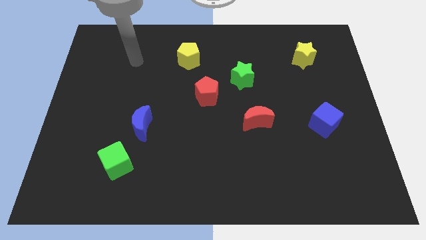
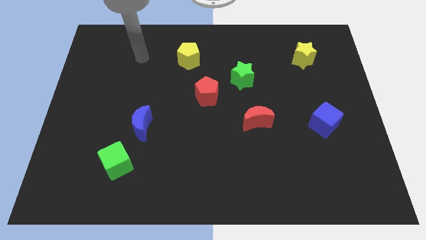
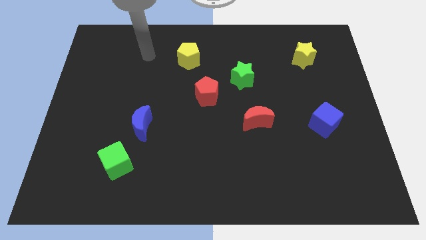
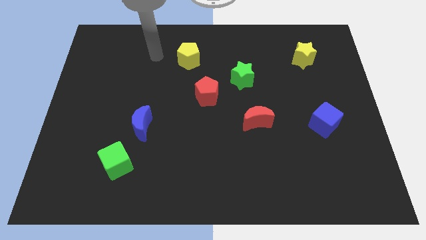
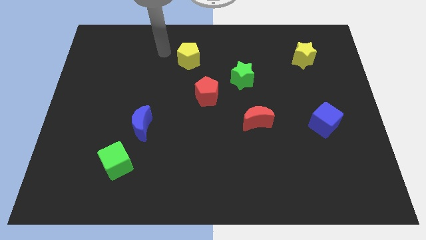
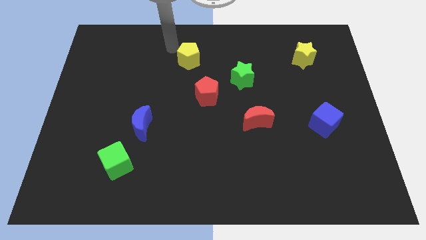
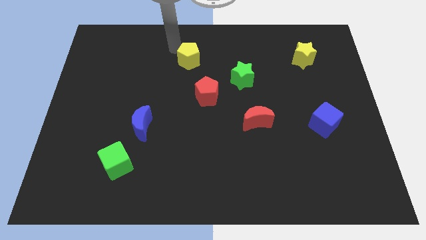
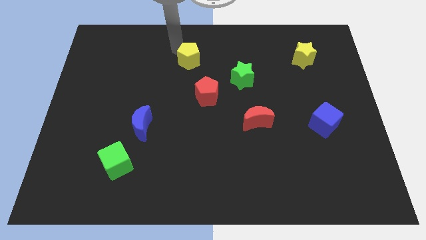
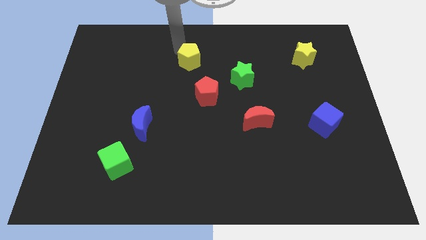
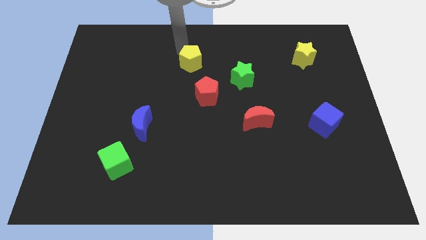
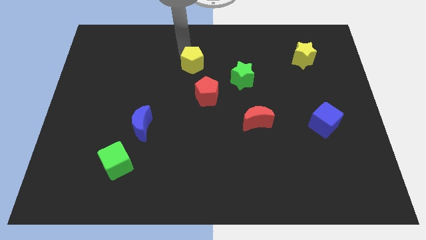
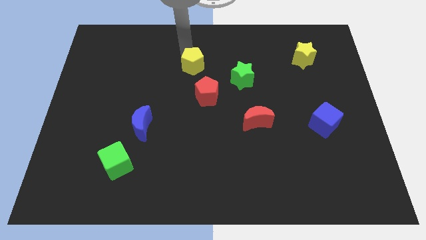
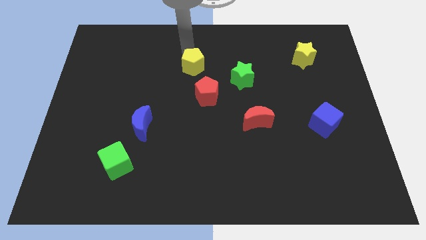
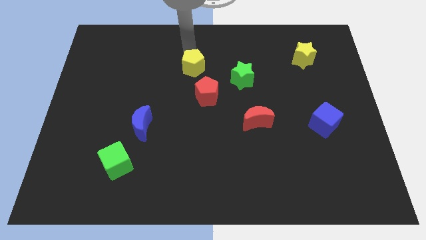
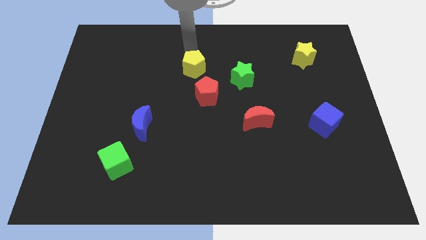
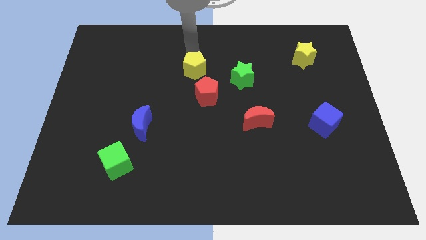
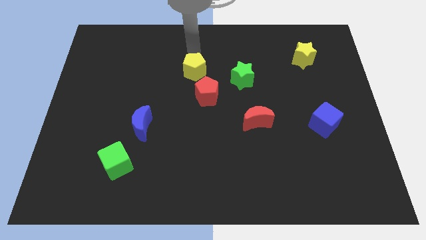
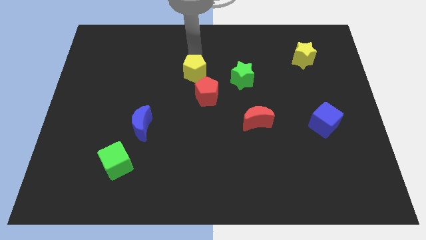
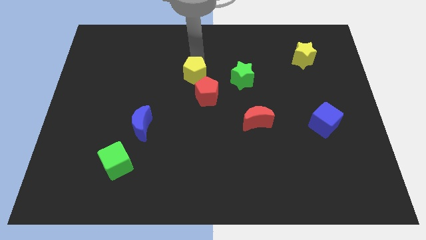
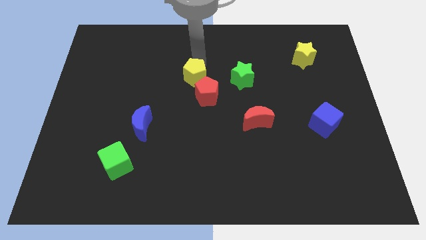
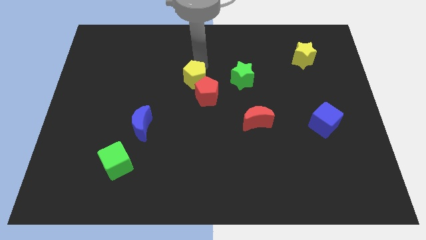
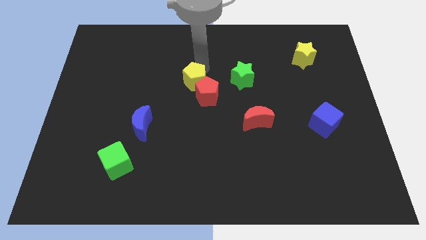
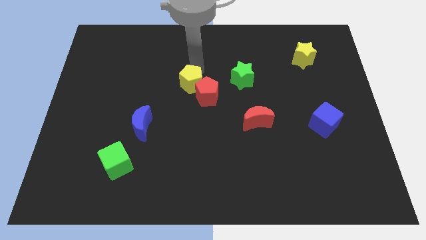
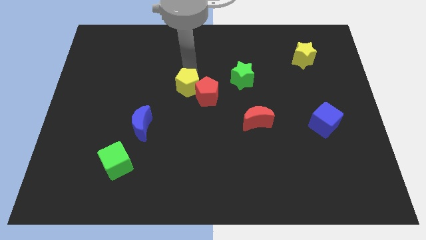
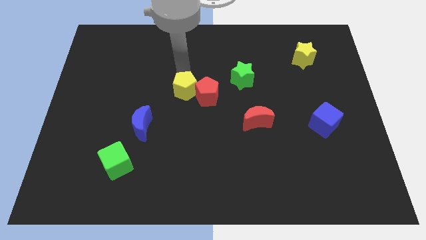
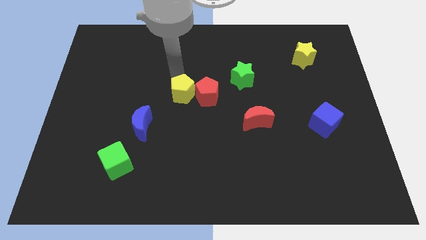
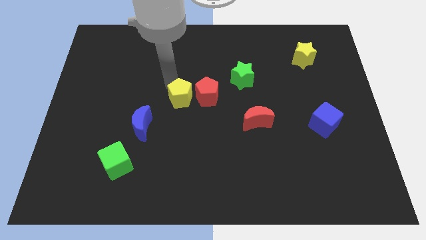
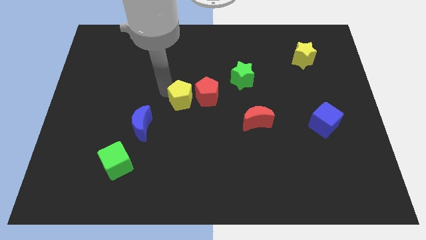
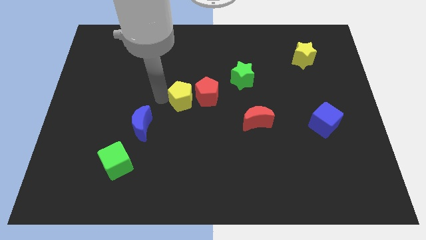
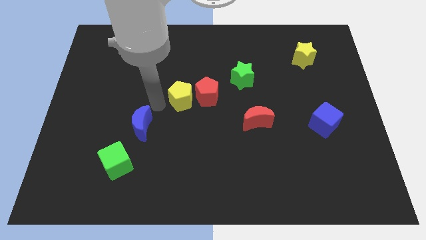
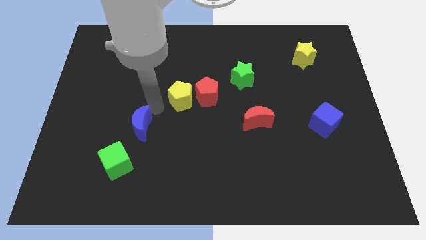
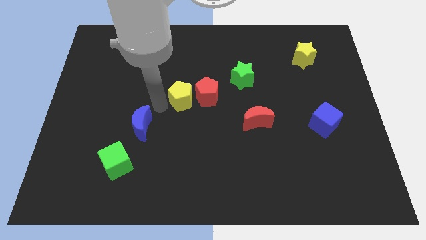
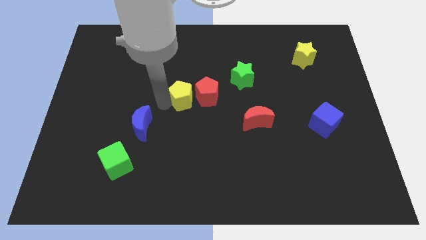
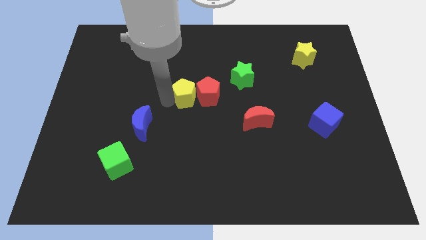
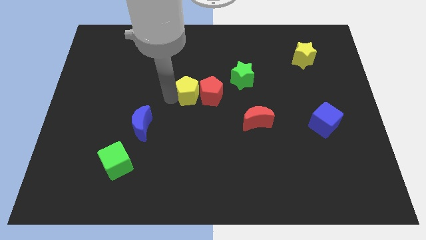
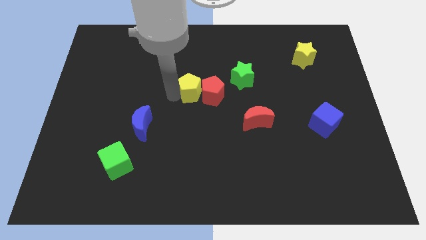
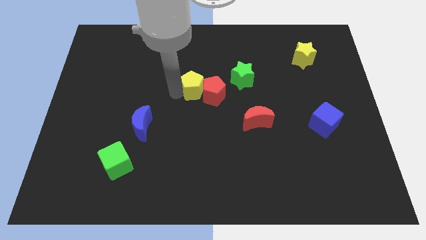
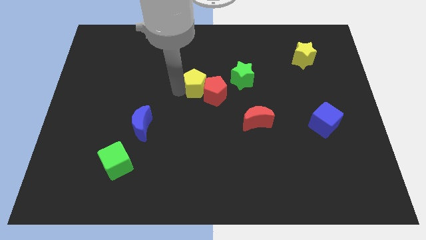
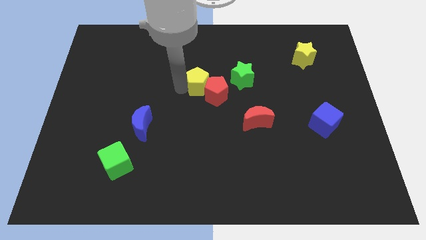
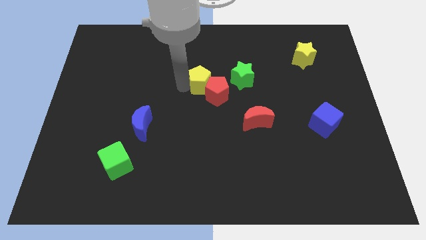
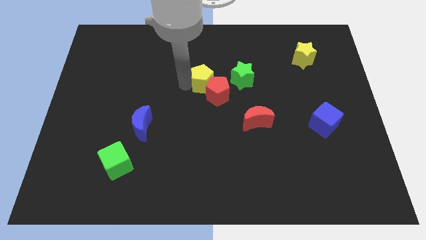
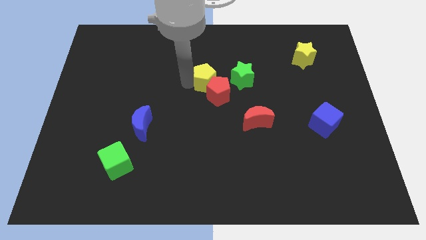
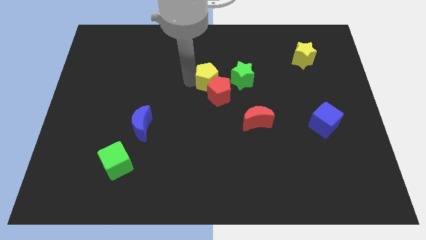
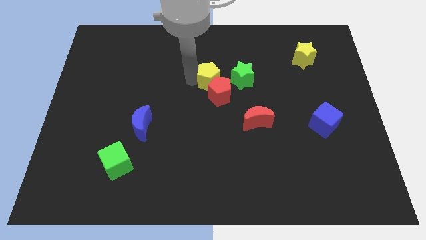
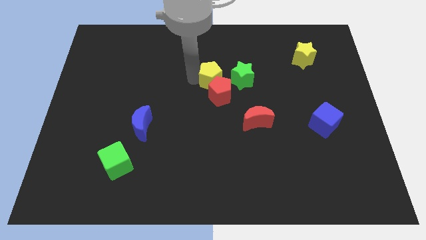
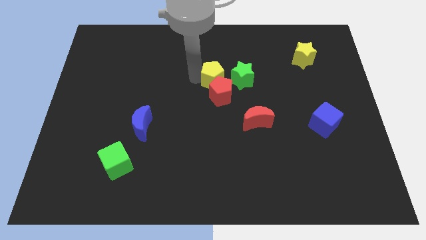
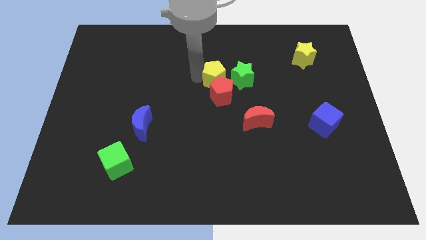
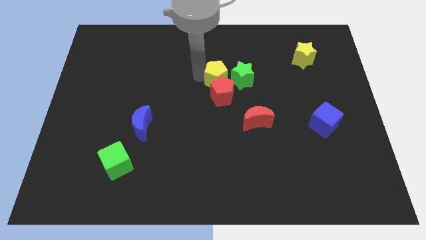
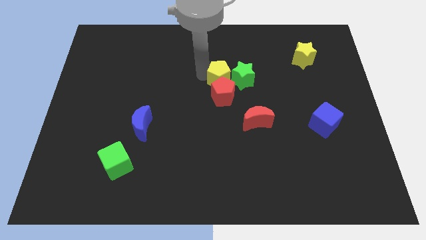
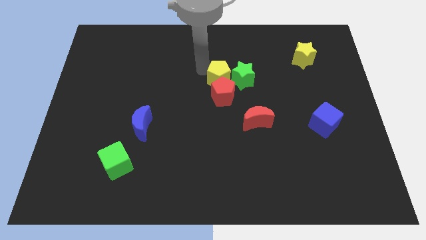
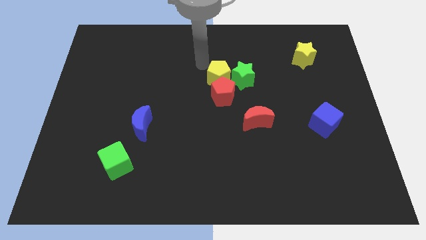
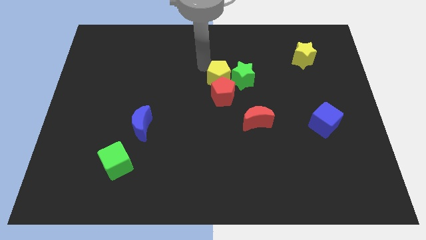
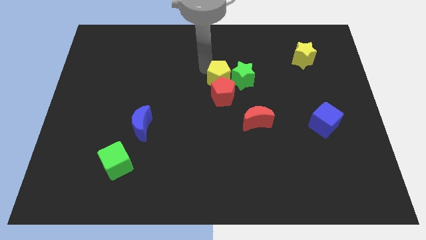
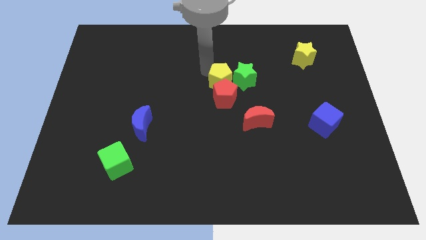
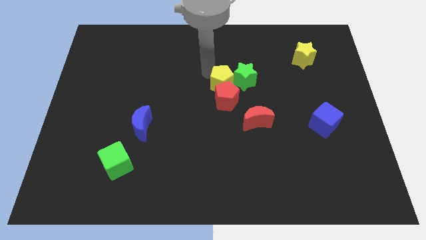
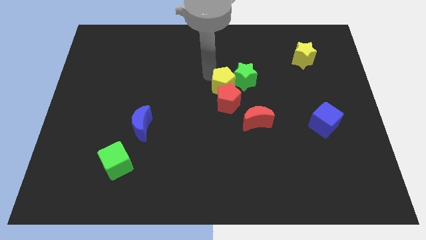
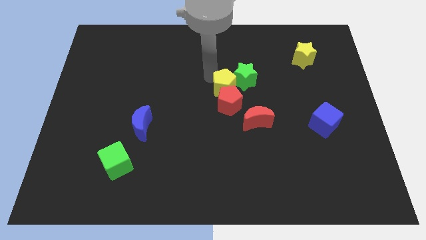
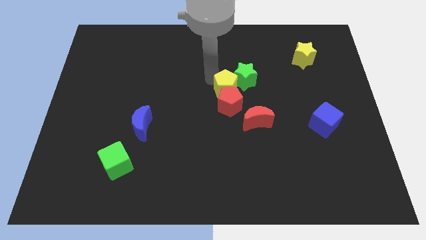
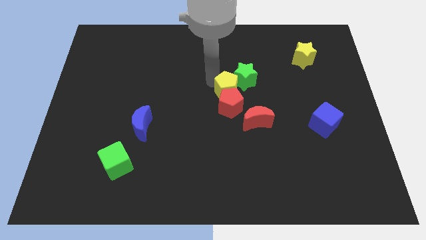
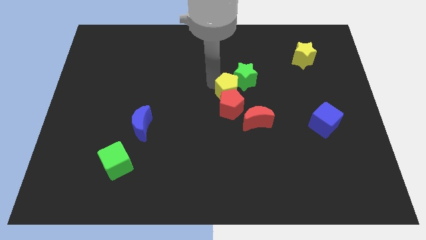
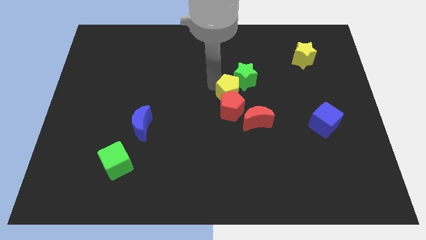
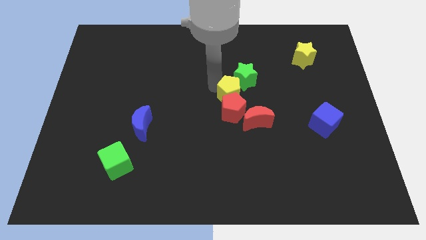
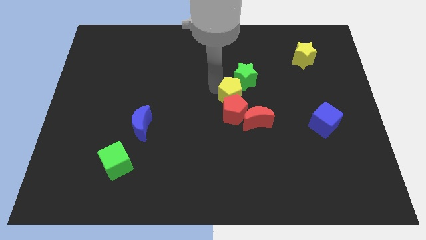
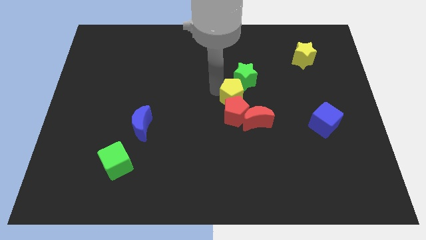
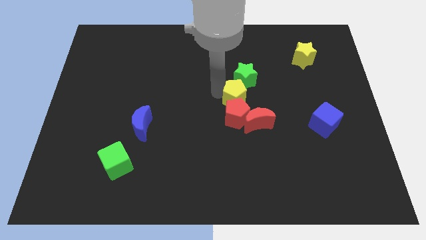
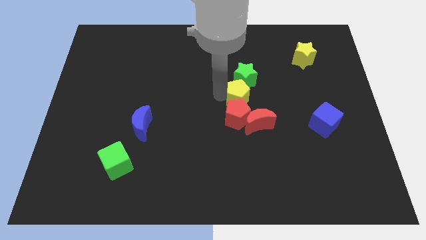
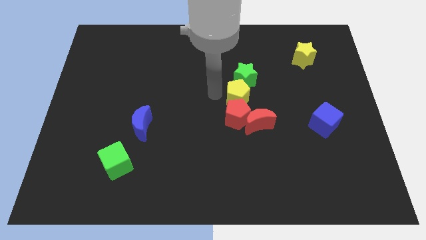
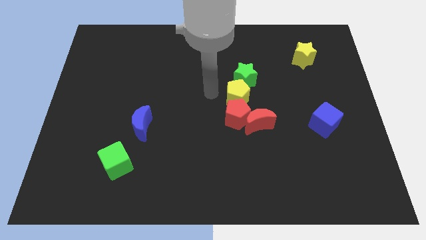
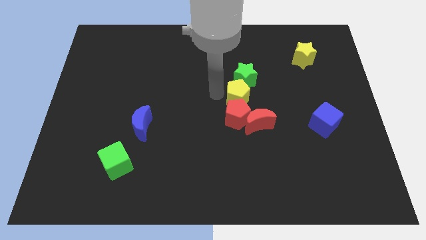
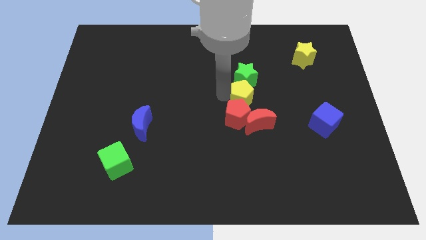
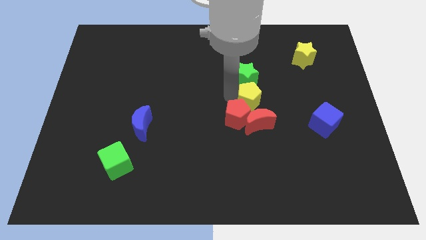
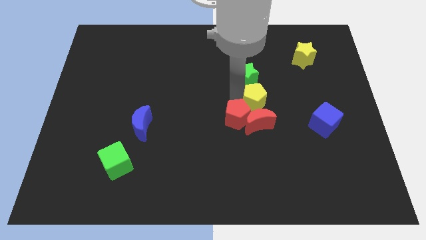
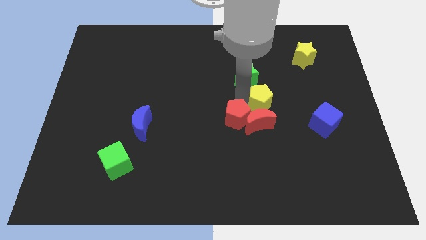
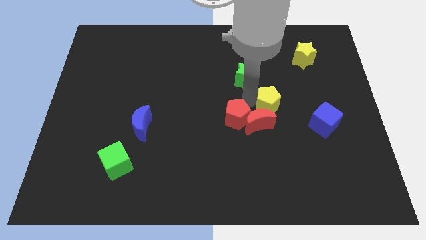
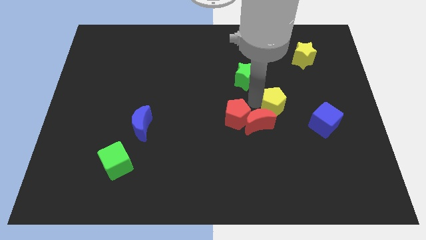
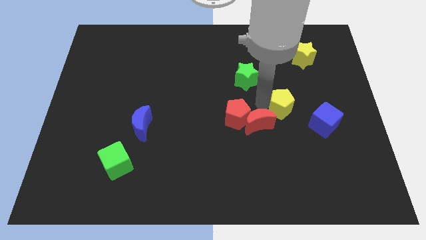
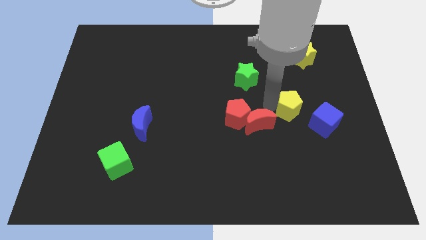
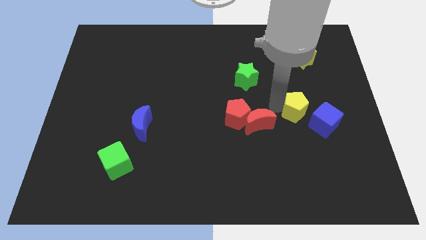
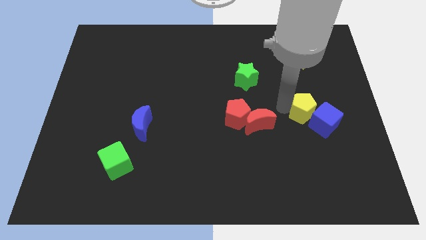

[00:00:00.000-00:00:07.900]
push the yellow pentagon close to the blue cube
